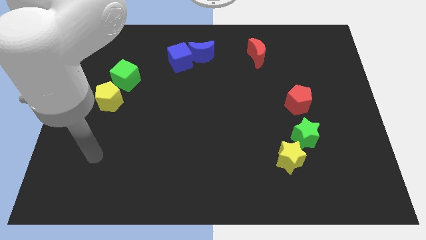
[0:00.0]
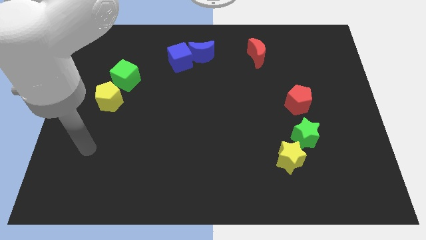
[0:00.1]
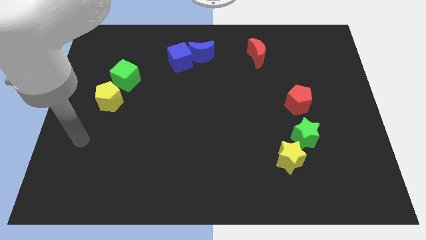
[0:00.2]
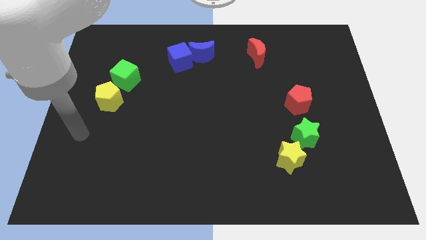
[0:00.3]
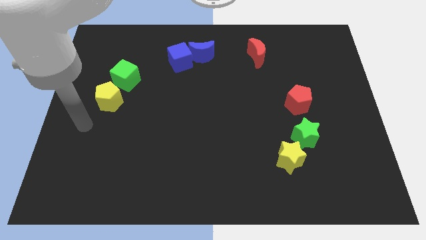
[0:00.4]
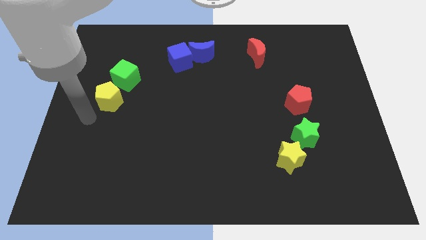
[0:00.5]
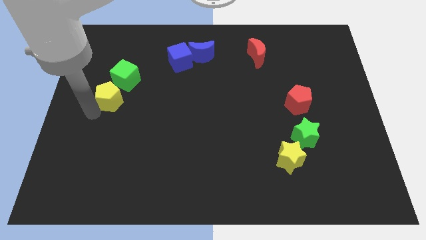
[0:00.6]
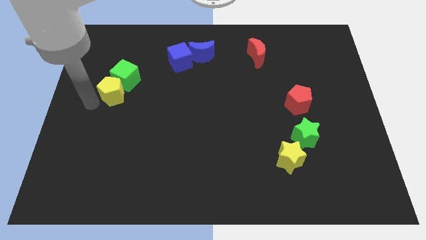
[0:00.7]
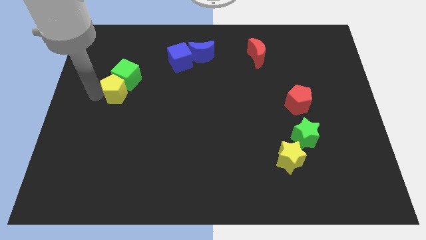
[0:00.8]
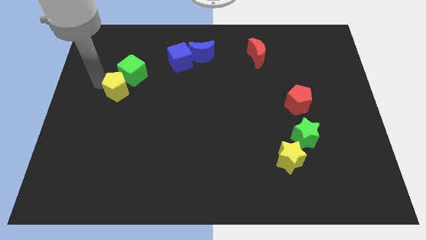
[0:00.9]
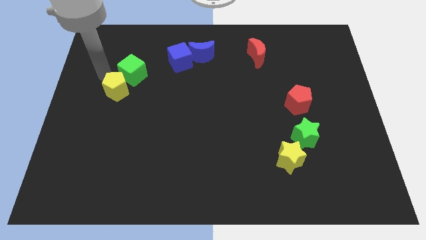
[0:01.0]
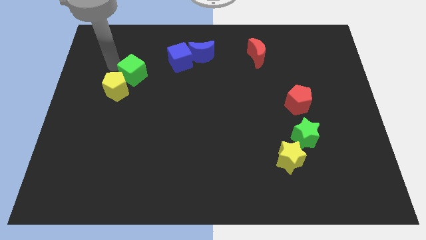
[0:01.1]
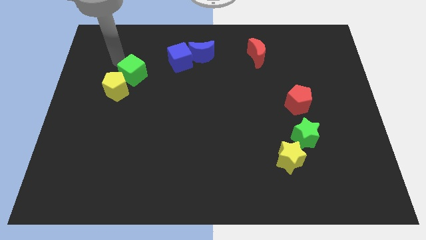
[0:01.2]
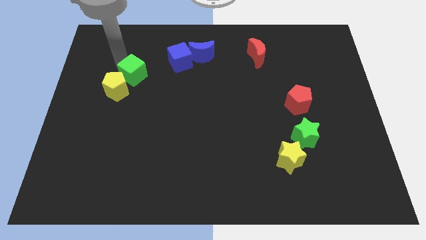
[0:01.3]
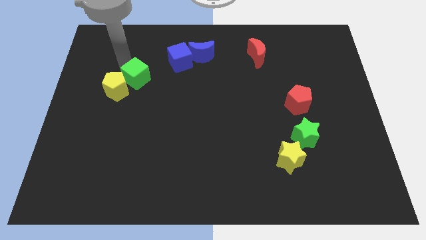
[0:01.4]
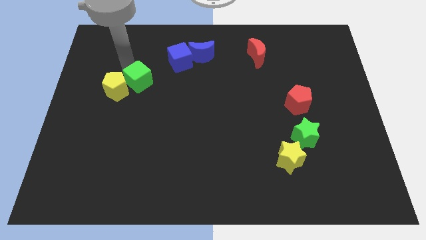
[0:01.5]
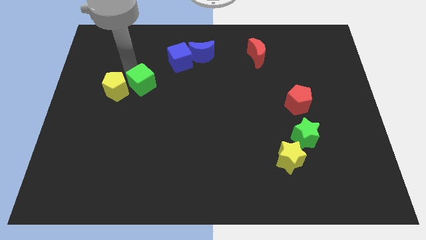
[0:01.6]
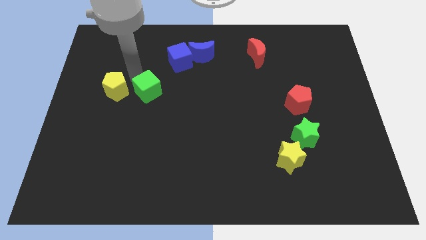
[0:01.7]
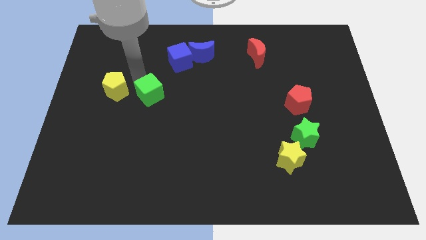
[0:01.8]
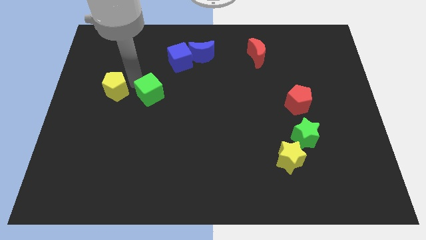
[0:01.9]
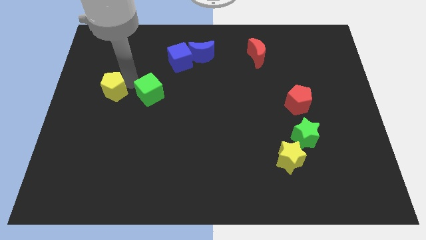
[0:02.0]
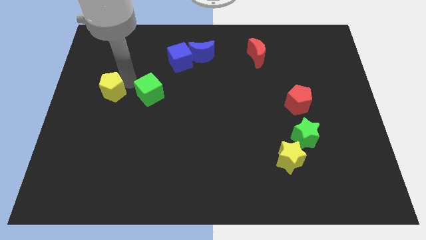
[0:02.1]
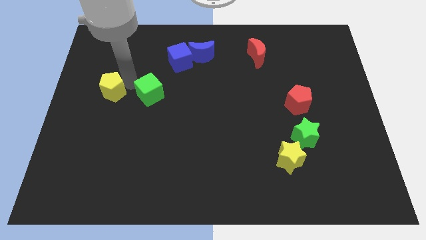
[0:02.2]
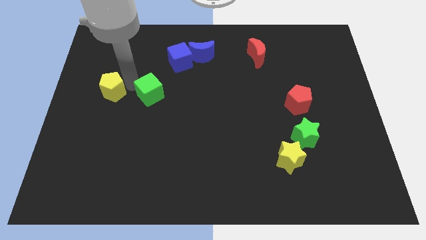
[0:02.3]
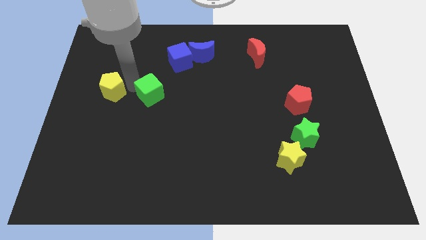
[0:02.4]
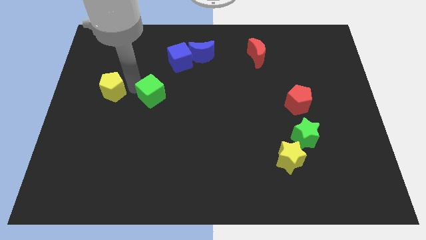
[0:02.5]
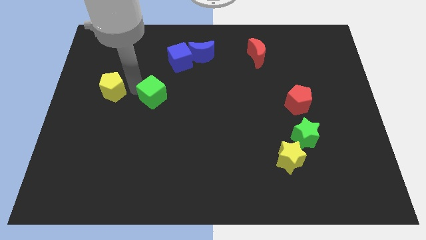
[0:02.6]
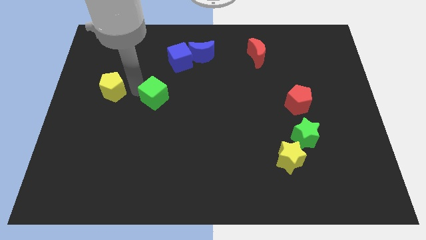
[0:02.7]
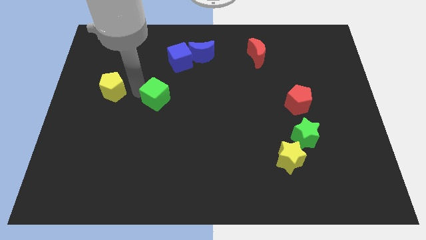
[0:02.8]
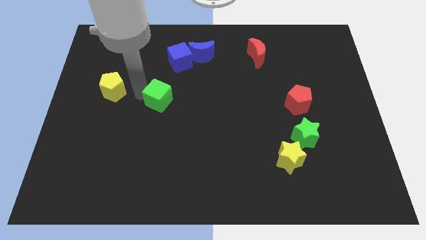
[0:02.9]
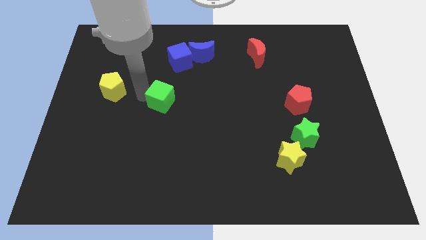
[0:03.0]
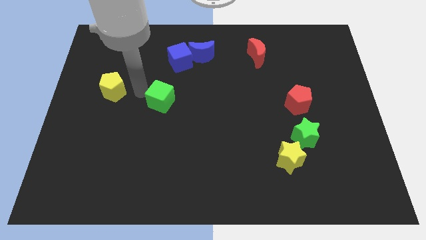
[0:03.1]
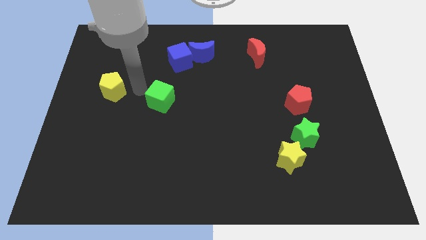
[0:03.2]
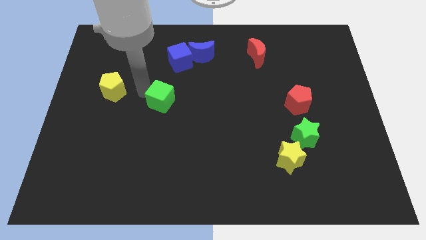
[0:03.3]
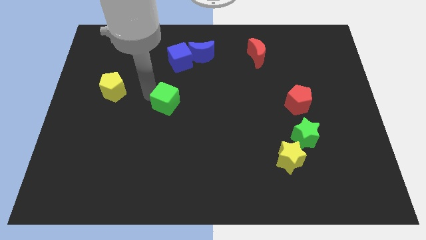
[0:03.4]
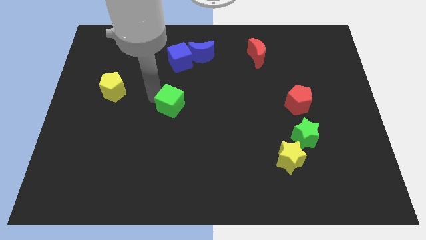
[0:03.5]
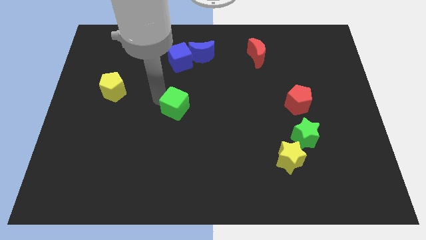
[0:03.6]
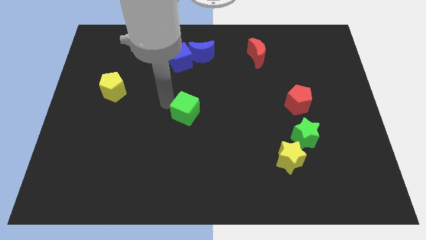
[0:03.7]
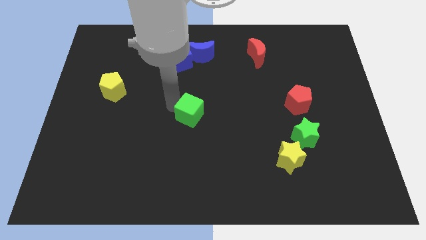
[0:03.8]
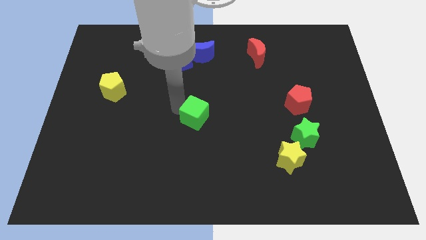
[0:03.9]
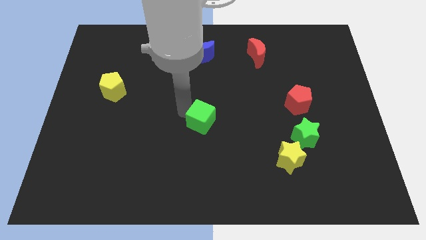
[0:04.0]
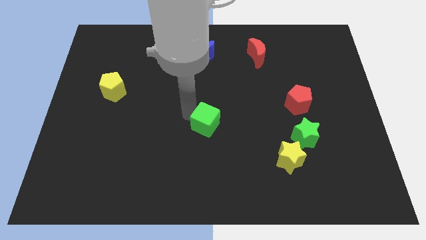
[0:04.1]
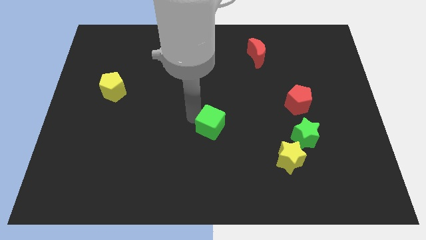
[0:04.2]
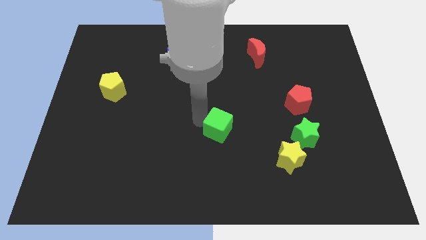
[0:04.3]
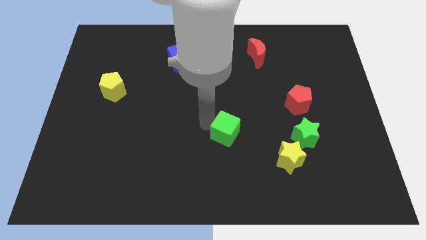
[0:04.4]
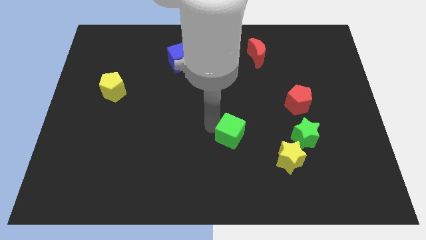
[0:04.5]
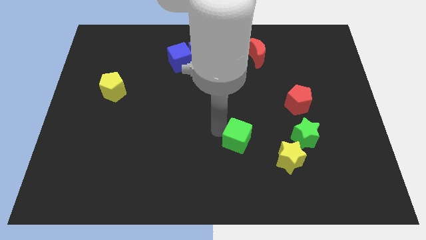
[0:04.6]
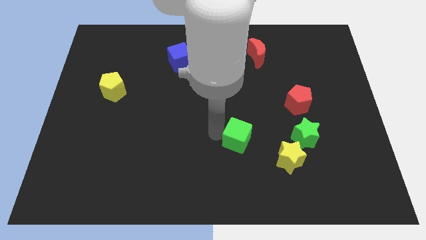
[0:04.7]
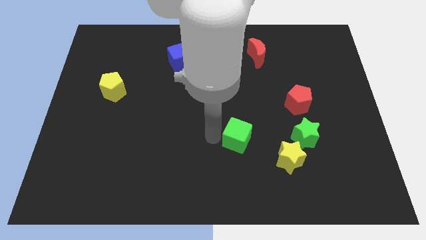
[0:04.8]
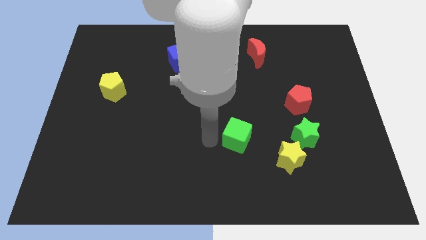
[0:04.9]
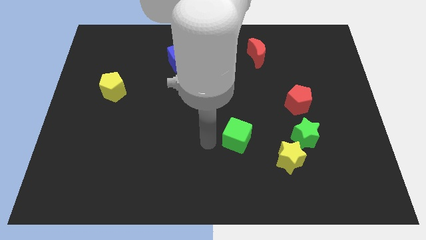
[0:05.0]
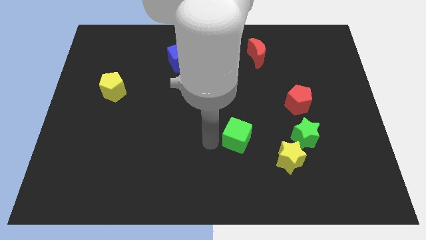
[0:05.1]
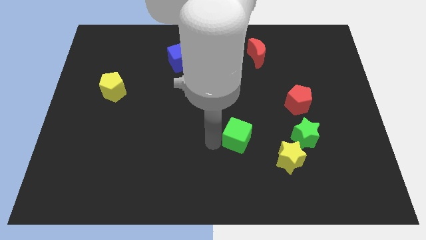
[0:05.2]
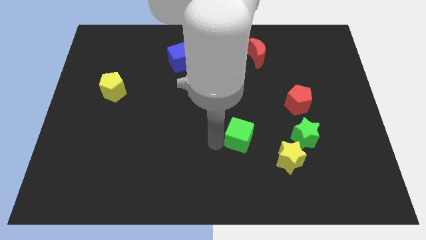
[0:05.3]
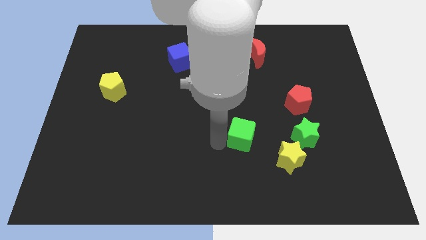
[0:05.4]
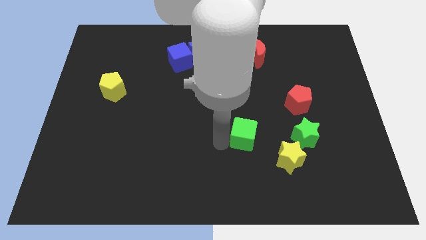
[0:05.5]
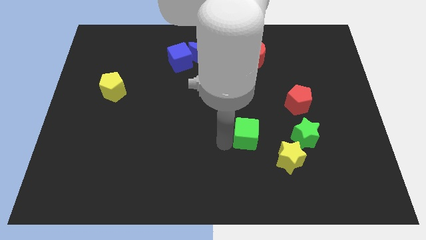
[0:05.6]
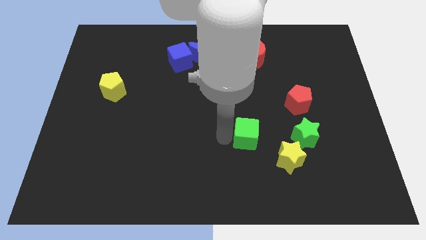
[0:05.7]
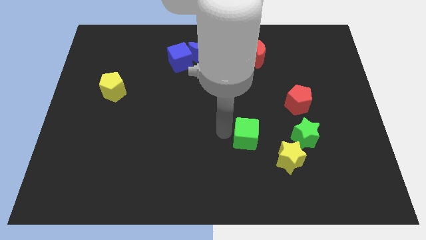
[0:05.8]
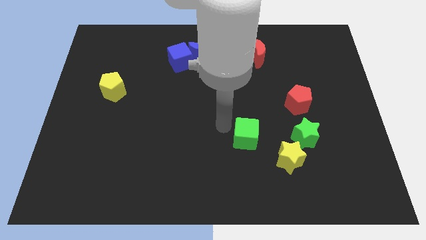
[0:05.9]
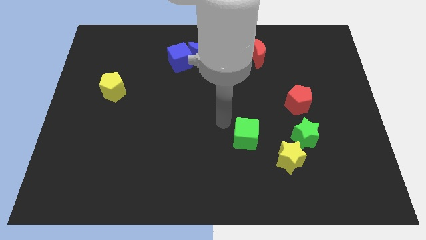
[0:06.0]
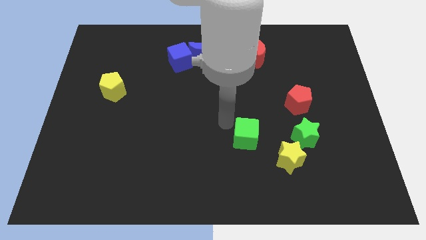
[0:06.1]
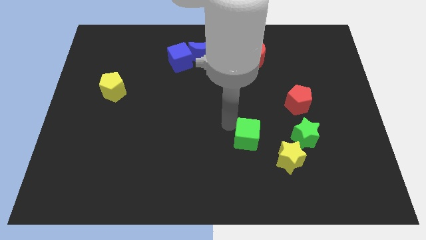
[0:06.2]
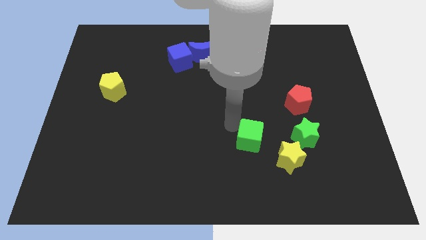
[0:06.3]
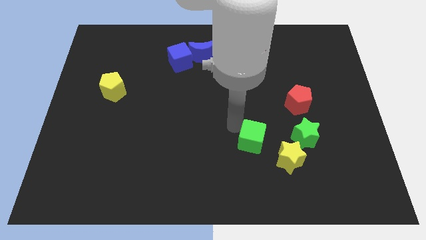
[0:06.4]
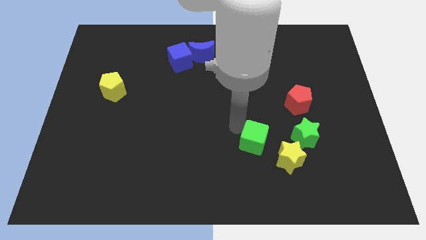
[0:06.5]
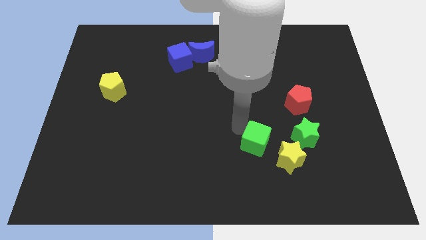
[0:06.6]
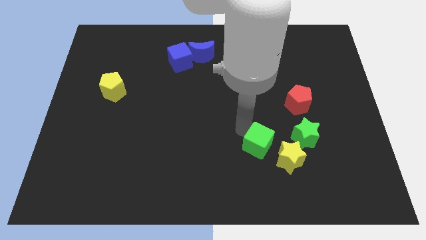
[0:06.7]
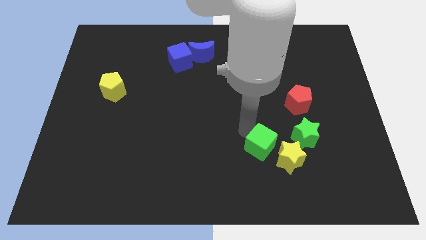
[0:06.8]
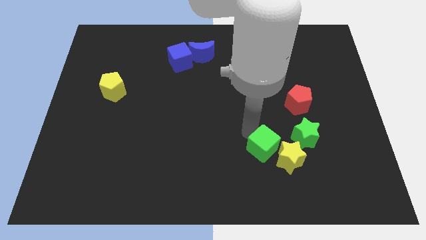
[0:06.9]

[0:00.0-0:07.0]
slide the green cube next to the yellow star
